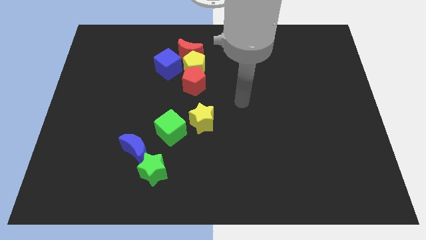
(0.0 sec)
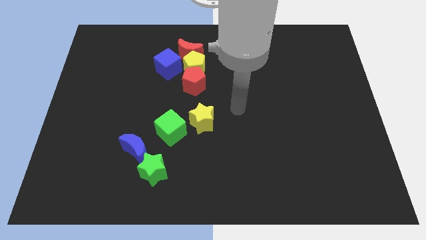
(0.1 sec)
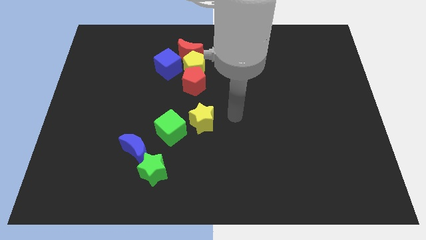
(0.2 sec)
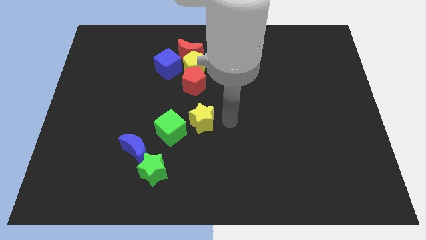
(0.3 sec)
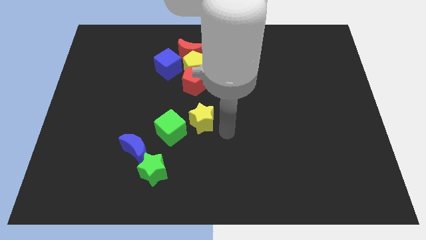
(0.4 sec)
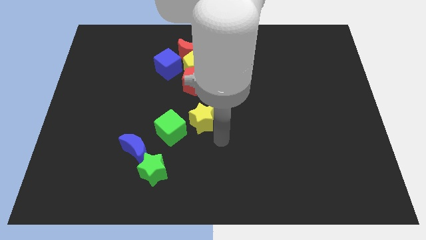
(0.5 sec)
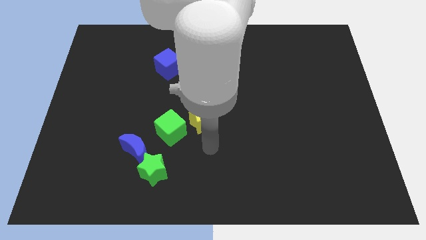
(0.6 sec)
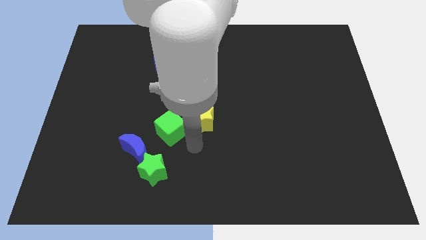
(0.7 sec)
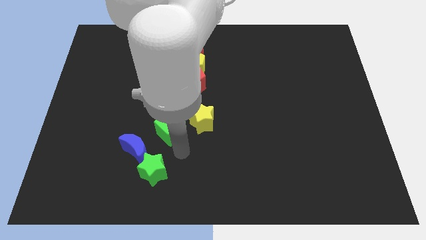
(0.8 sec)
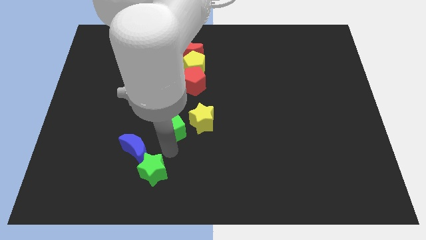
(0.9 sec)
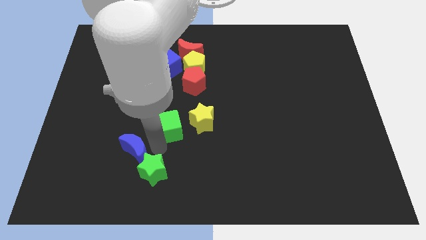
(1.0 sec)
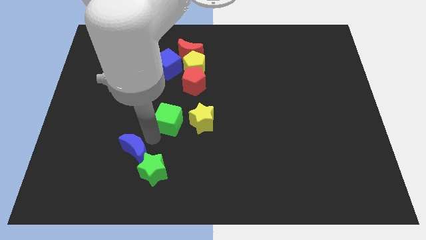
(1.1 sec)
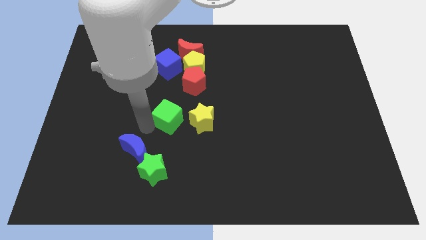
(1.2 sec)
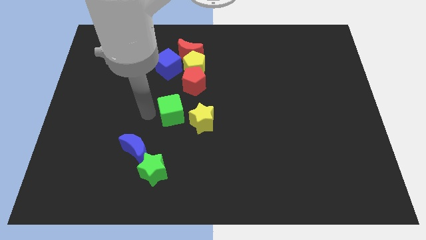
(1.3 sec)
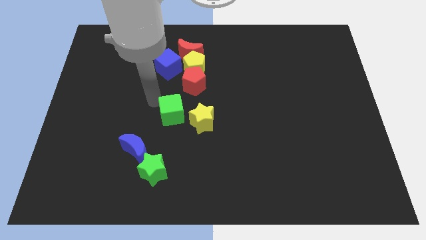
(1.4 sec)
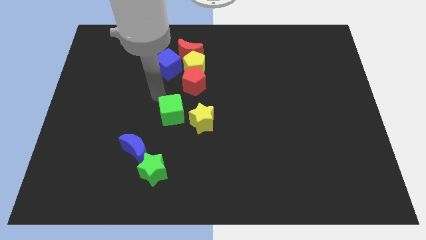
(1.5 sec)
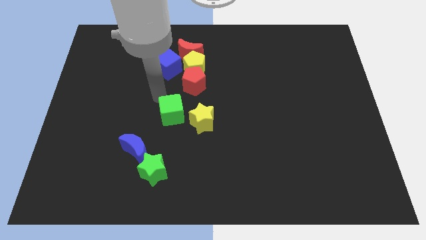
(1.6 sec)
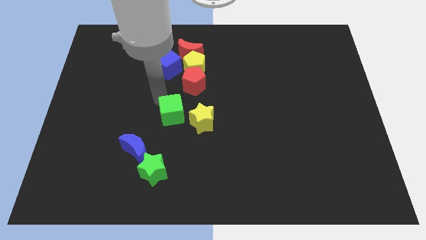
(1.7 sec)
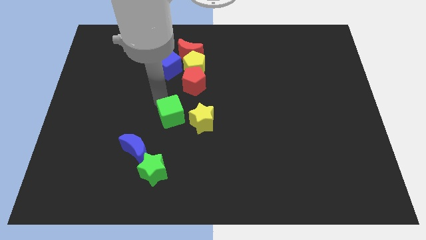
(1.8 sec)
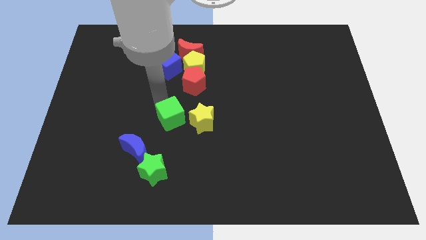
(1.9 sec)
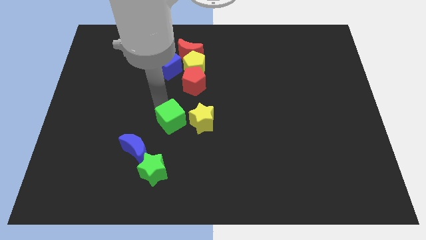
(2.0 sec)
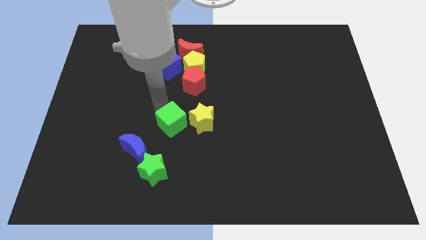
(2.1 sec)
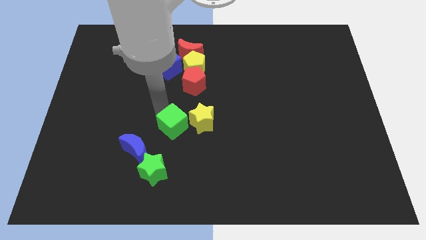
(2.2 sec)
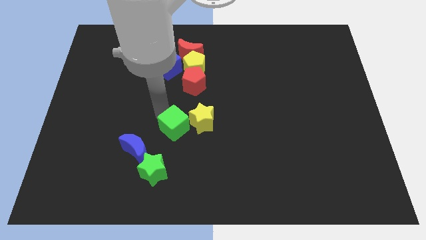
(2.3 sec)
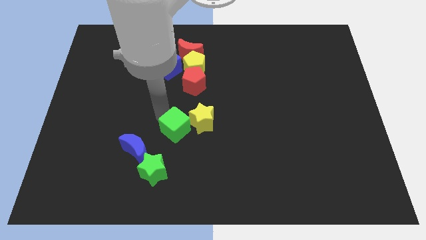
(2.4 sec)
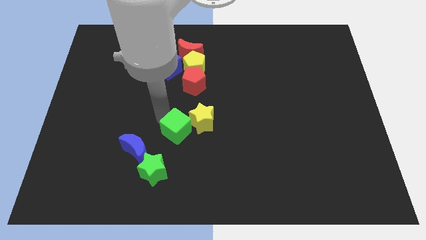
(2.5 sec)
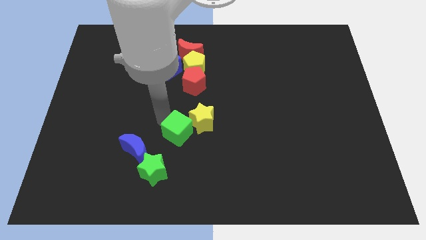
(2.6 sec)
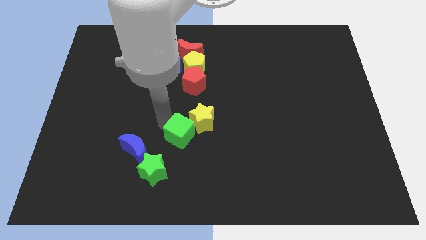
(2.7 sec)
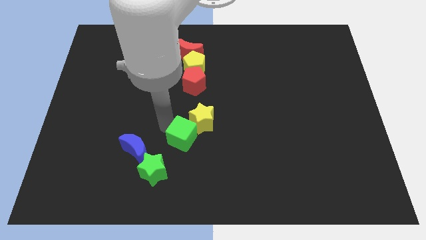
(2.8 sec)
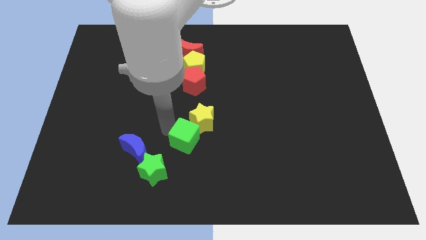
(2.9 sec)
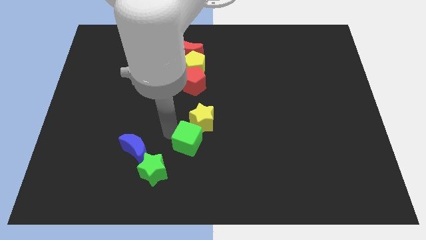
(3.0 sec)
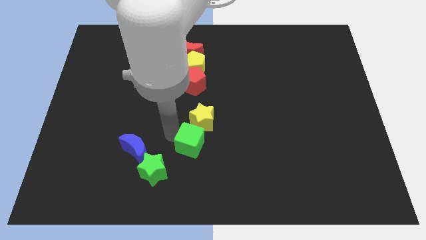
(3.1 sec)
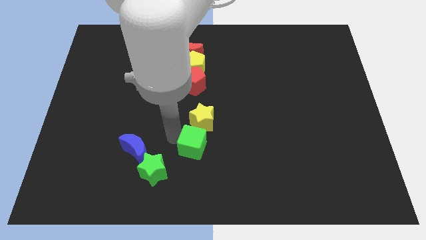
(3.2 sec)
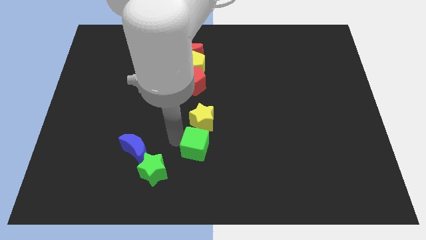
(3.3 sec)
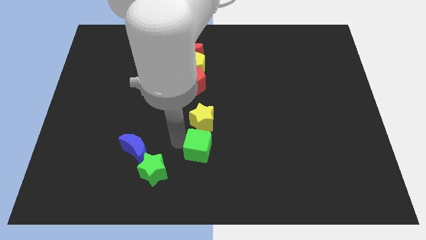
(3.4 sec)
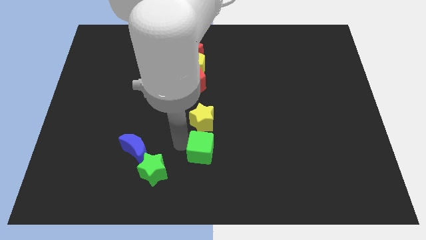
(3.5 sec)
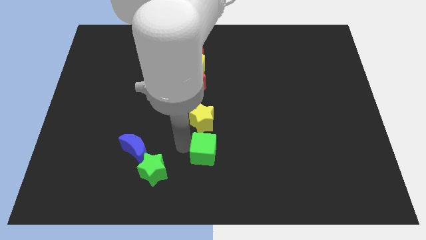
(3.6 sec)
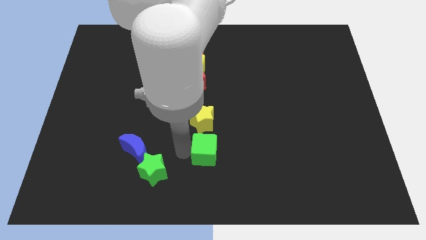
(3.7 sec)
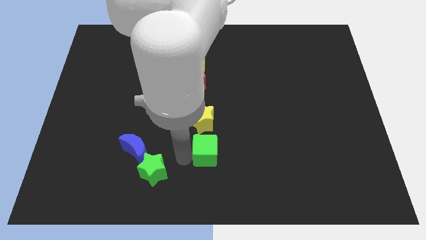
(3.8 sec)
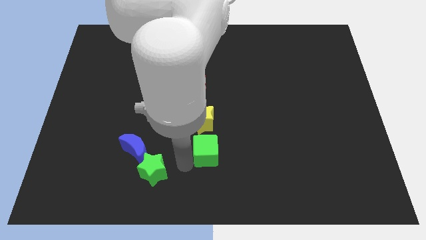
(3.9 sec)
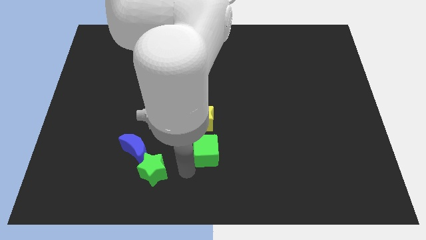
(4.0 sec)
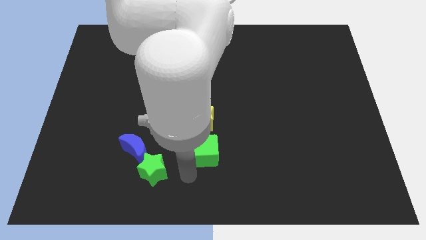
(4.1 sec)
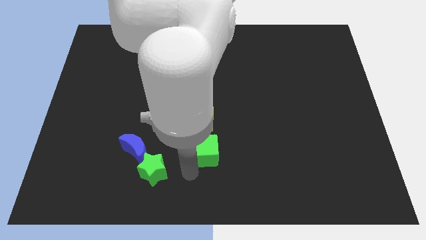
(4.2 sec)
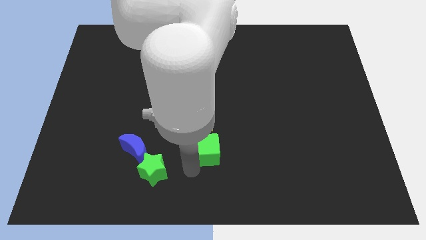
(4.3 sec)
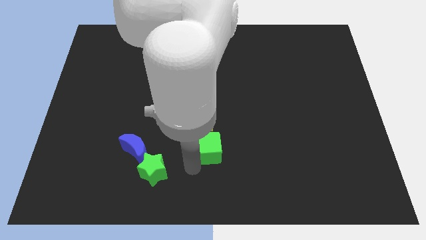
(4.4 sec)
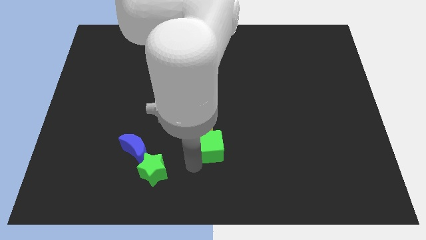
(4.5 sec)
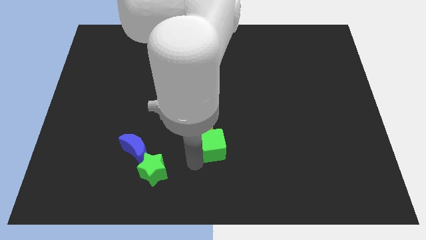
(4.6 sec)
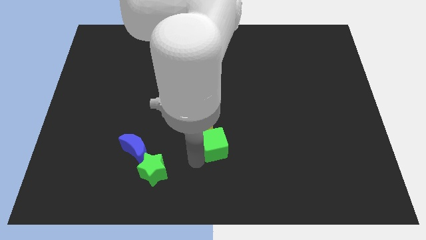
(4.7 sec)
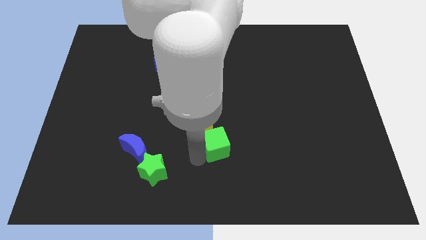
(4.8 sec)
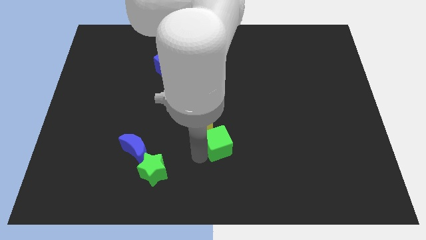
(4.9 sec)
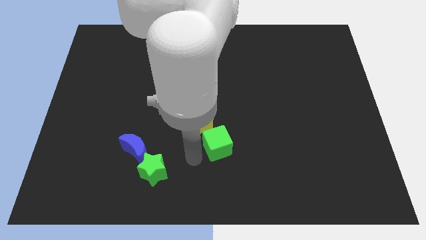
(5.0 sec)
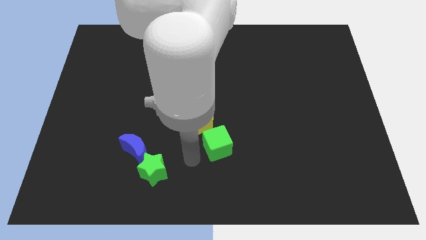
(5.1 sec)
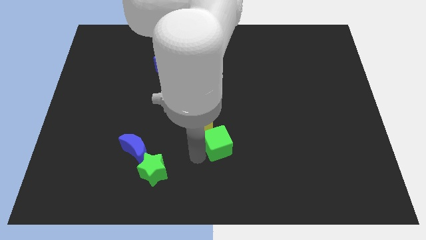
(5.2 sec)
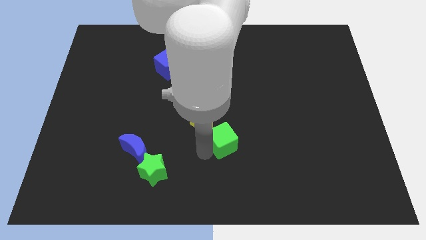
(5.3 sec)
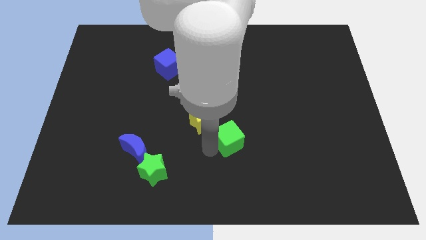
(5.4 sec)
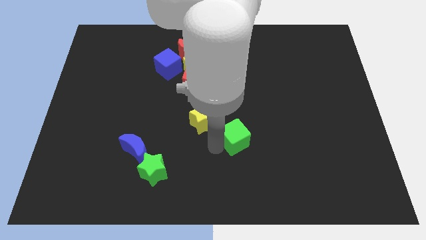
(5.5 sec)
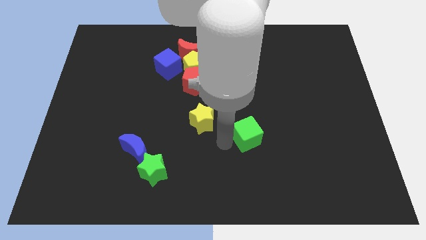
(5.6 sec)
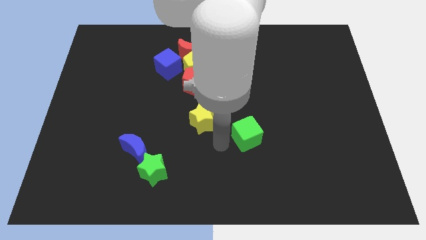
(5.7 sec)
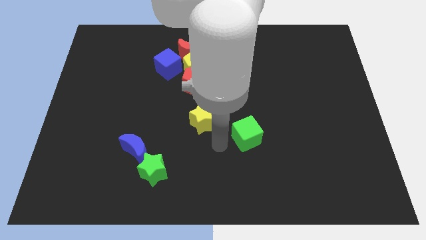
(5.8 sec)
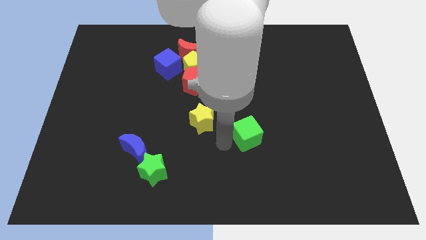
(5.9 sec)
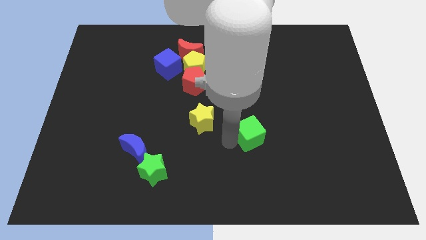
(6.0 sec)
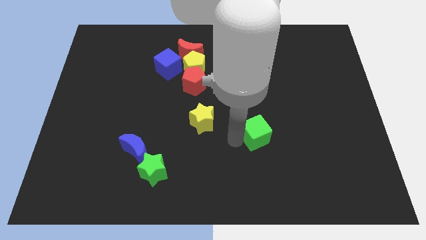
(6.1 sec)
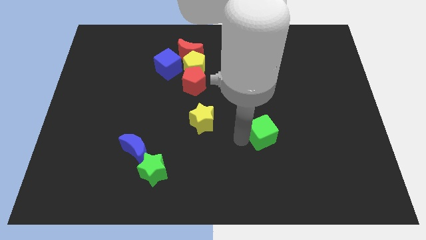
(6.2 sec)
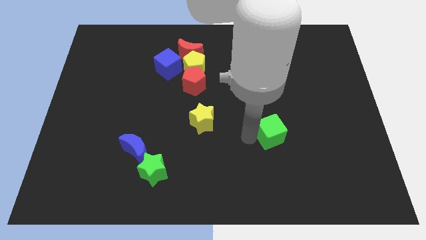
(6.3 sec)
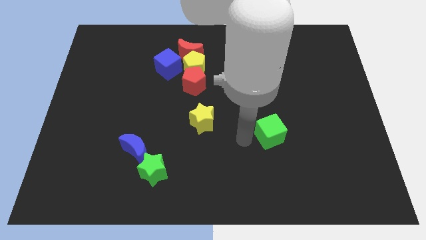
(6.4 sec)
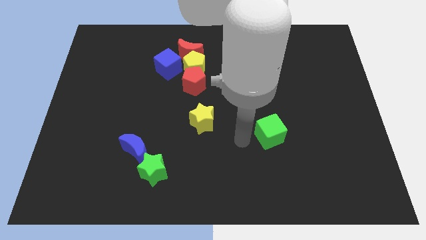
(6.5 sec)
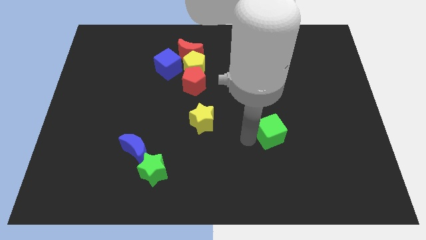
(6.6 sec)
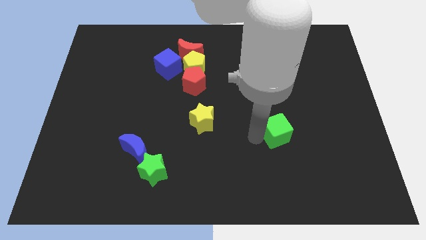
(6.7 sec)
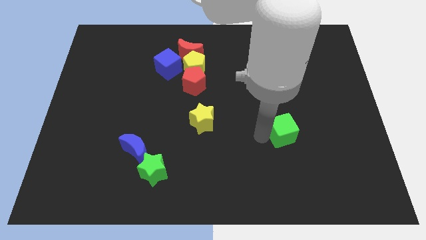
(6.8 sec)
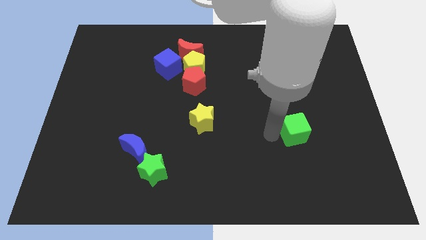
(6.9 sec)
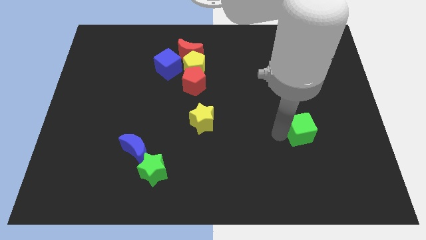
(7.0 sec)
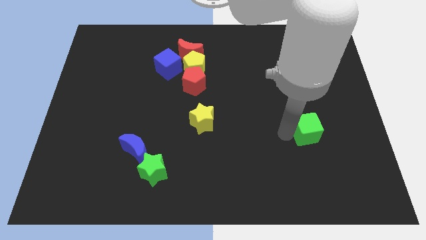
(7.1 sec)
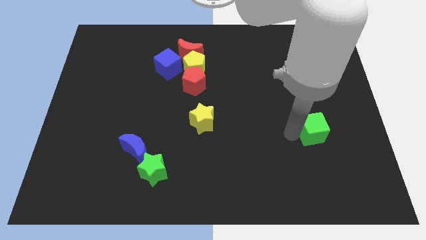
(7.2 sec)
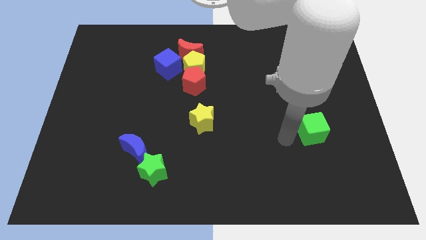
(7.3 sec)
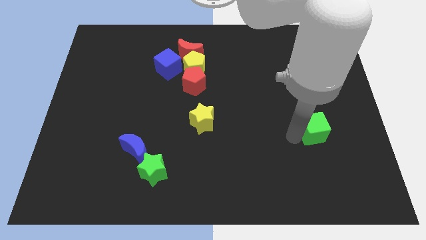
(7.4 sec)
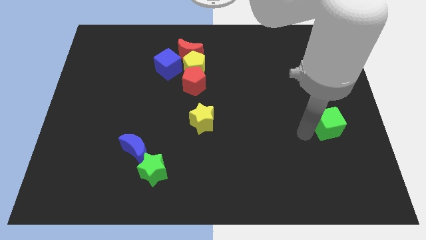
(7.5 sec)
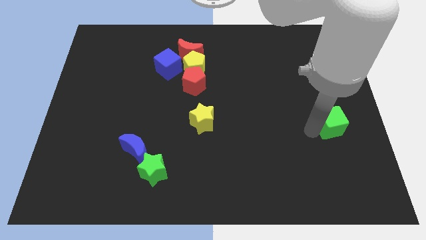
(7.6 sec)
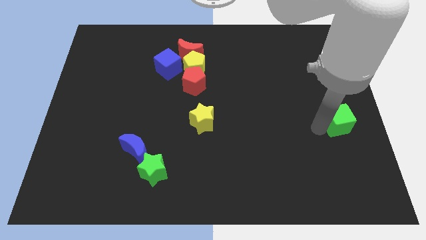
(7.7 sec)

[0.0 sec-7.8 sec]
push the green cube to the right side of the board
